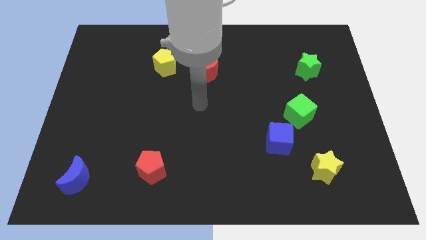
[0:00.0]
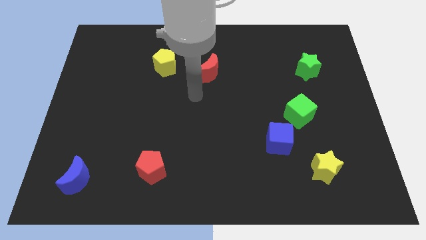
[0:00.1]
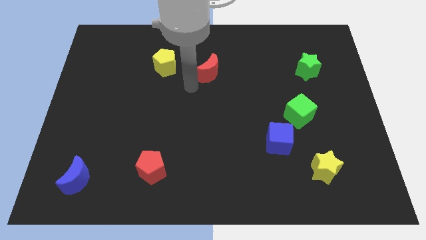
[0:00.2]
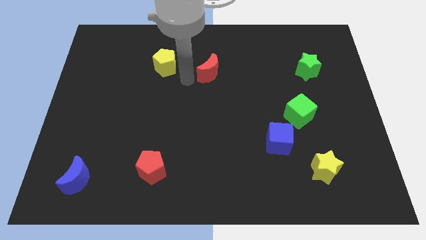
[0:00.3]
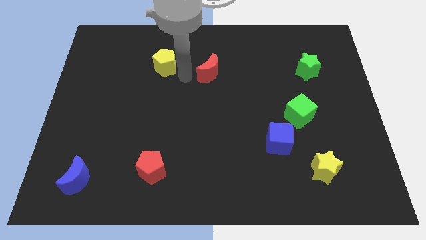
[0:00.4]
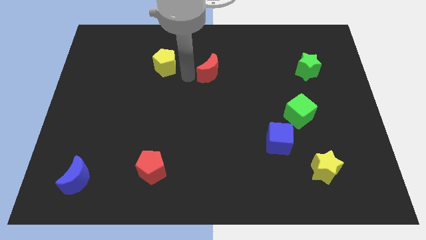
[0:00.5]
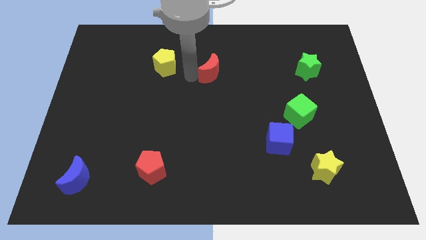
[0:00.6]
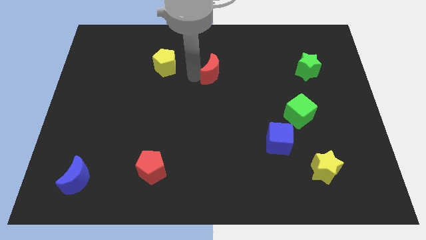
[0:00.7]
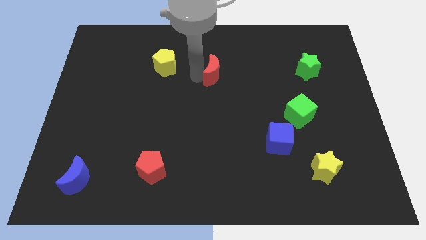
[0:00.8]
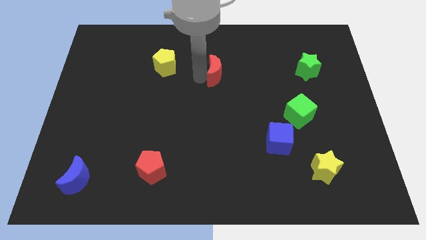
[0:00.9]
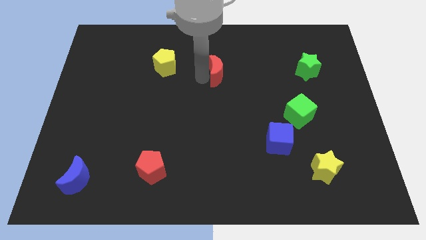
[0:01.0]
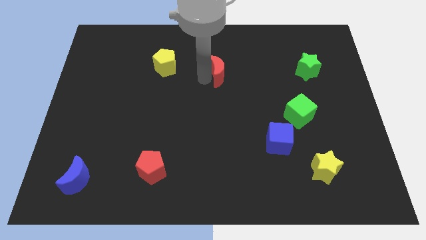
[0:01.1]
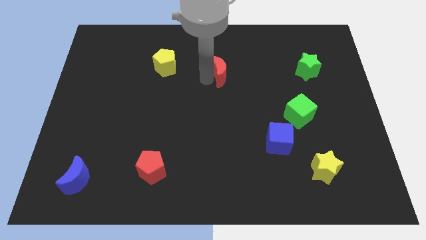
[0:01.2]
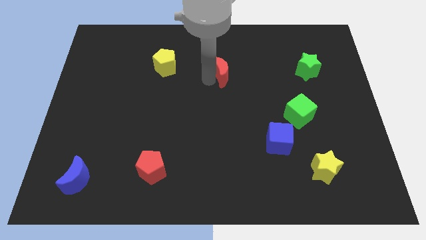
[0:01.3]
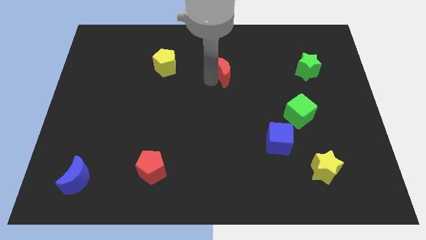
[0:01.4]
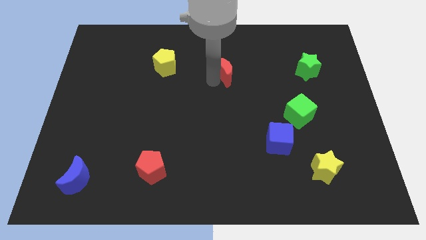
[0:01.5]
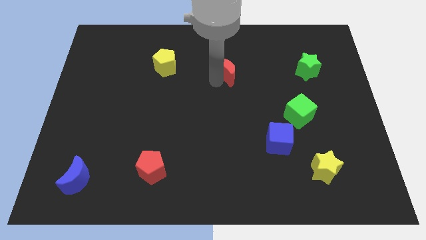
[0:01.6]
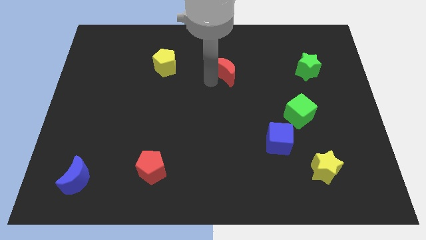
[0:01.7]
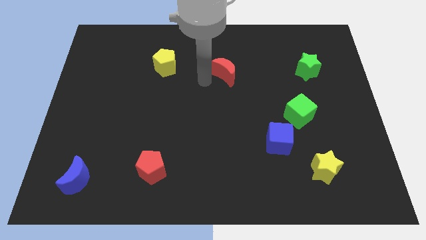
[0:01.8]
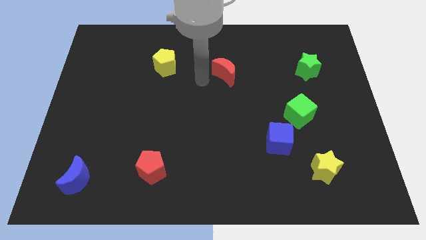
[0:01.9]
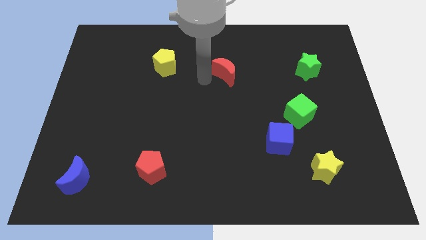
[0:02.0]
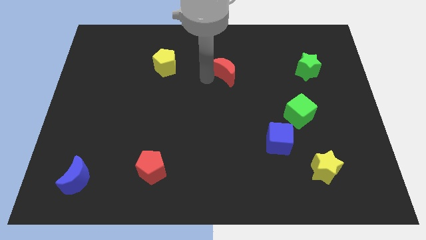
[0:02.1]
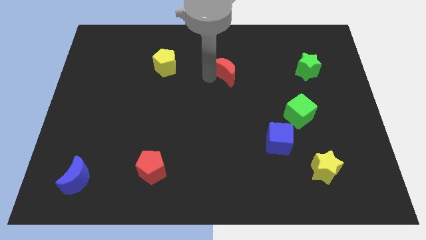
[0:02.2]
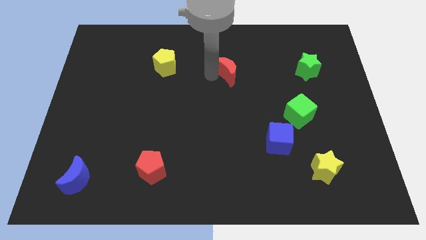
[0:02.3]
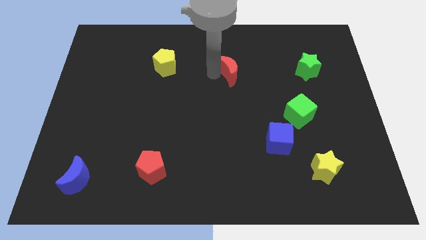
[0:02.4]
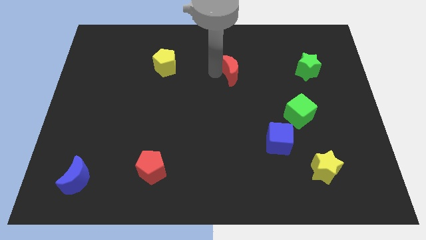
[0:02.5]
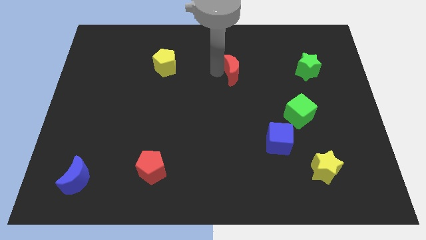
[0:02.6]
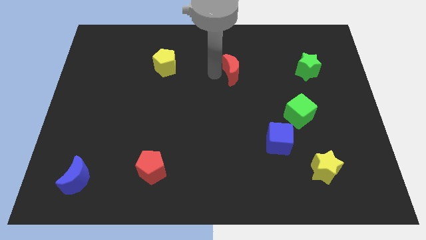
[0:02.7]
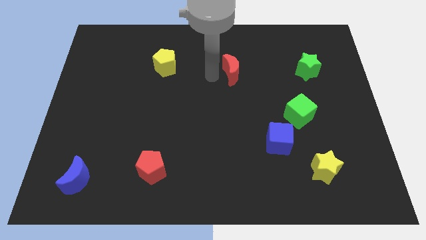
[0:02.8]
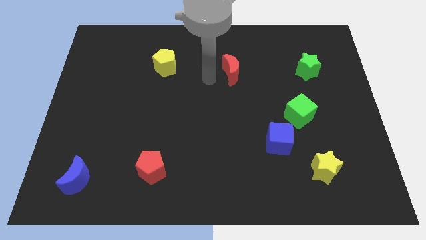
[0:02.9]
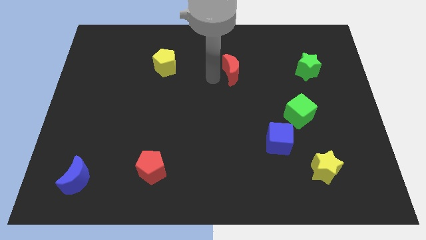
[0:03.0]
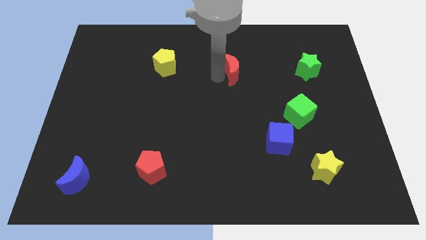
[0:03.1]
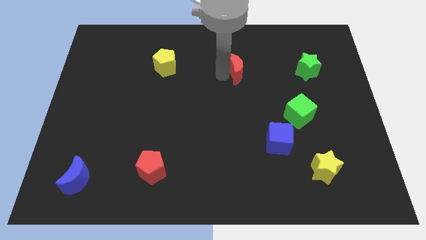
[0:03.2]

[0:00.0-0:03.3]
slightly move the red moon to the right

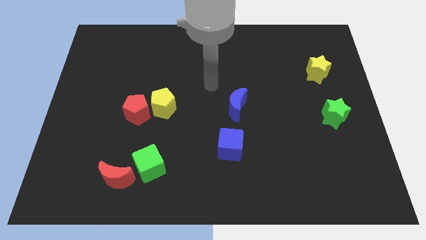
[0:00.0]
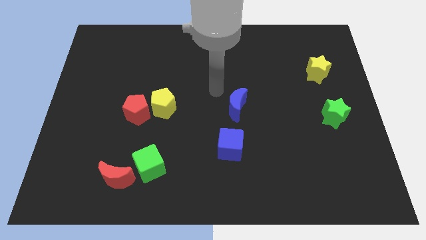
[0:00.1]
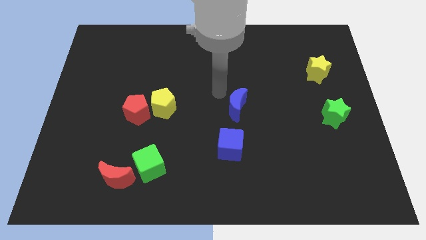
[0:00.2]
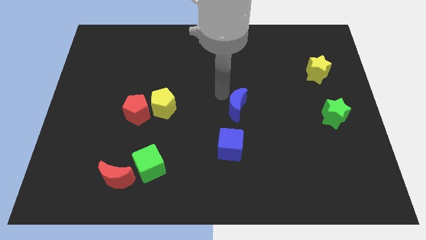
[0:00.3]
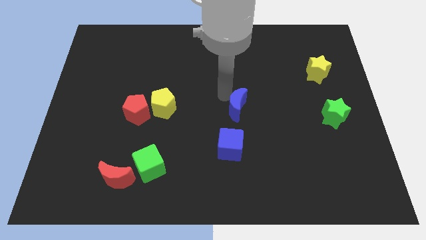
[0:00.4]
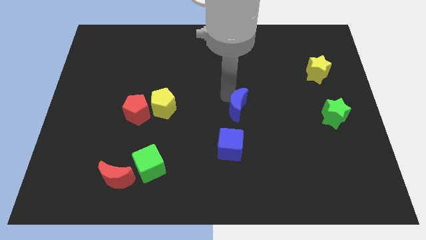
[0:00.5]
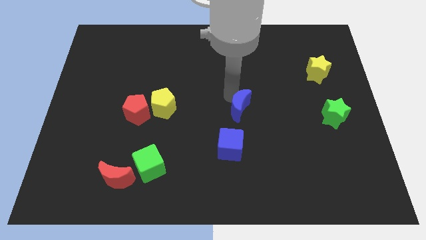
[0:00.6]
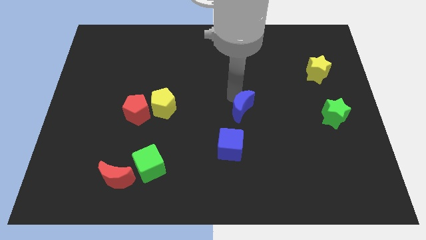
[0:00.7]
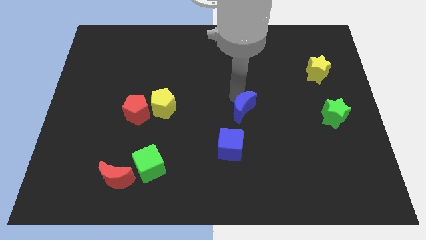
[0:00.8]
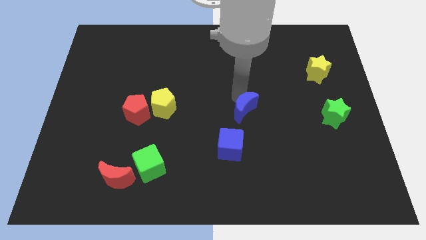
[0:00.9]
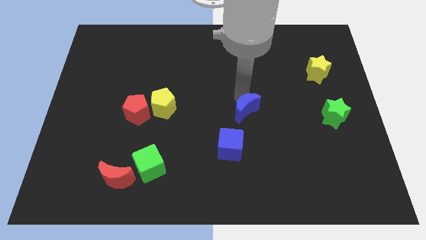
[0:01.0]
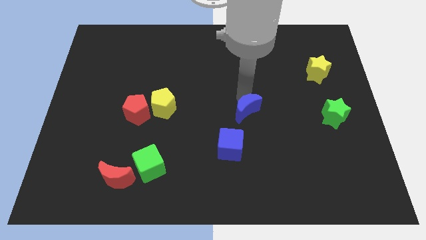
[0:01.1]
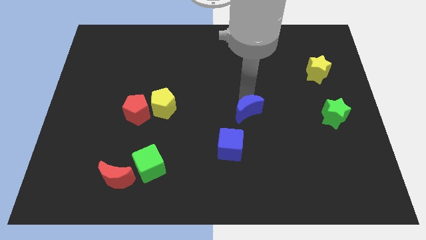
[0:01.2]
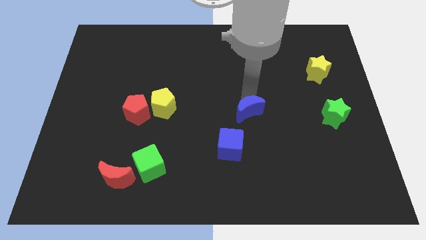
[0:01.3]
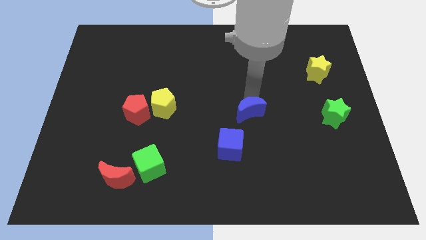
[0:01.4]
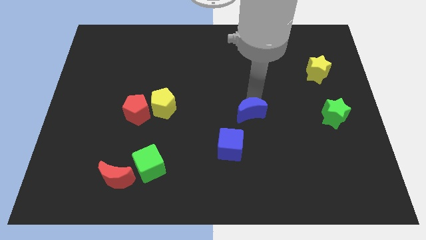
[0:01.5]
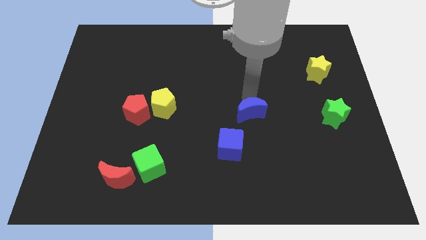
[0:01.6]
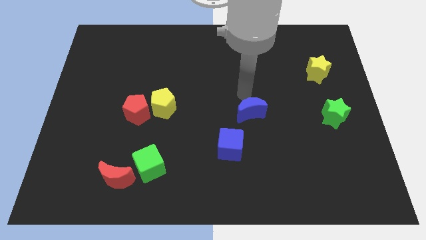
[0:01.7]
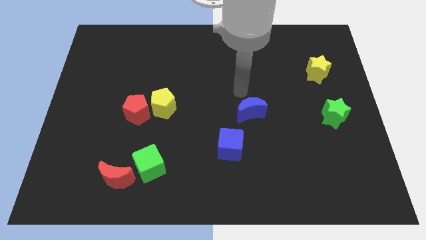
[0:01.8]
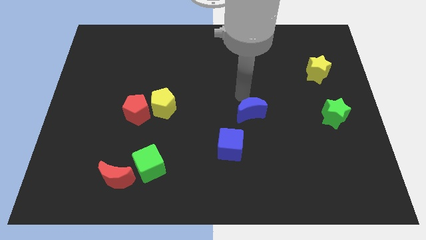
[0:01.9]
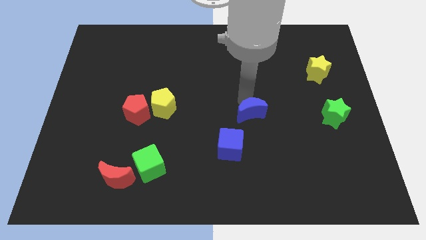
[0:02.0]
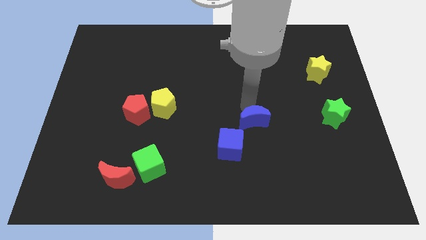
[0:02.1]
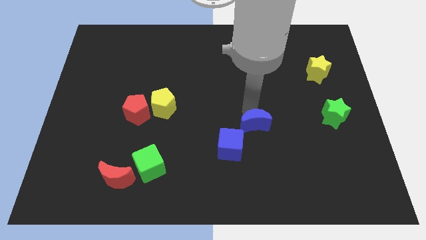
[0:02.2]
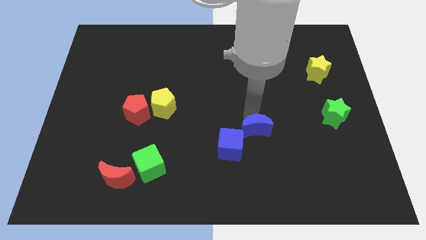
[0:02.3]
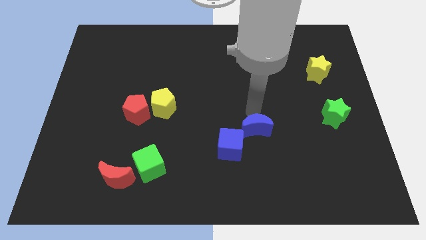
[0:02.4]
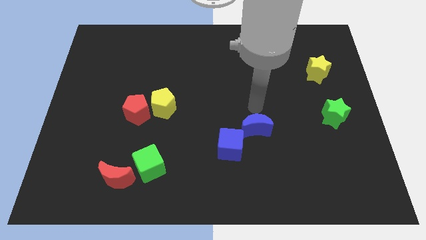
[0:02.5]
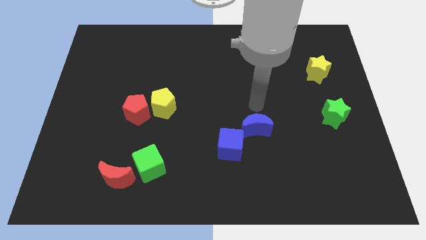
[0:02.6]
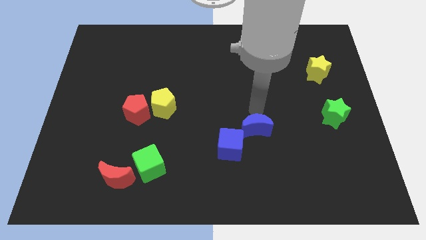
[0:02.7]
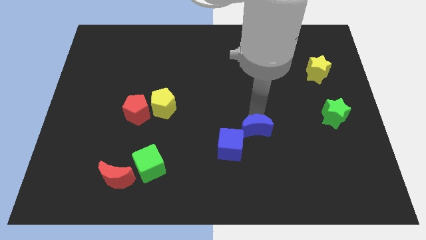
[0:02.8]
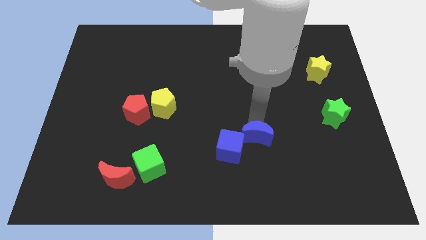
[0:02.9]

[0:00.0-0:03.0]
slightly move the blue moon downwards

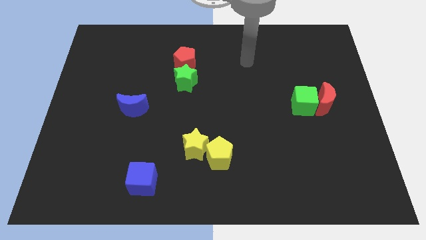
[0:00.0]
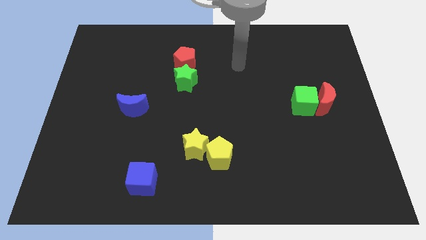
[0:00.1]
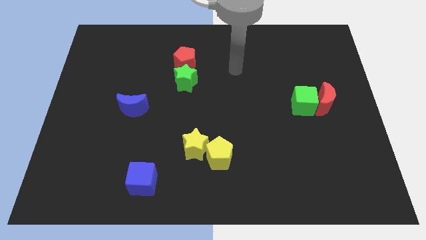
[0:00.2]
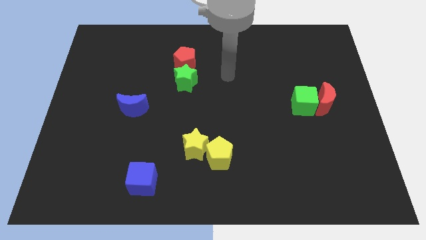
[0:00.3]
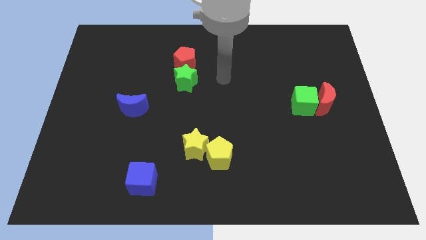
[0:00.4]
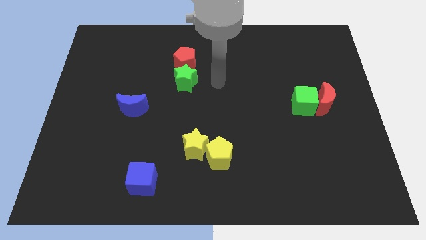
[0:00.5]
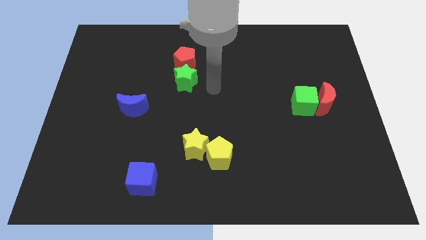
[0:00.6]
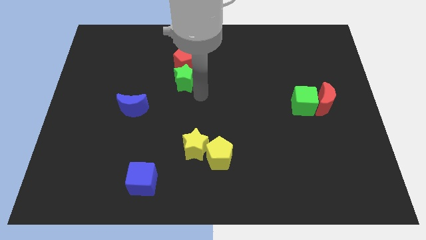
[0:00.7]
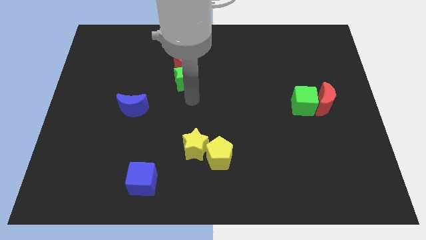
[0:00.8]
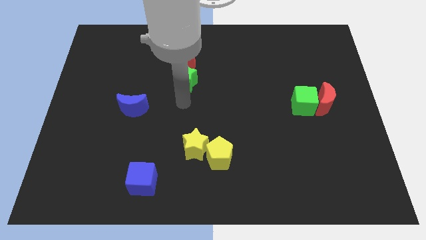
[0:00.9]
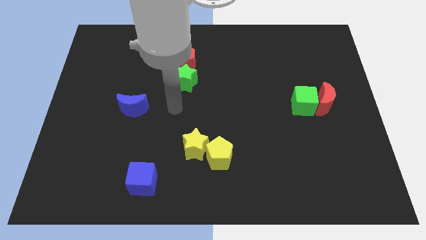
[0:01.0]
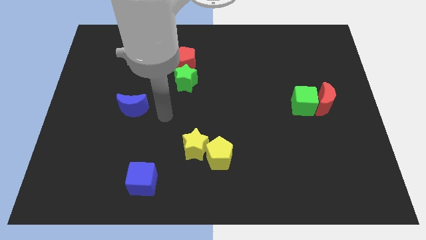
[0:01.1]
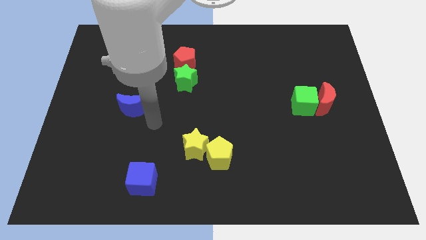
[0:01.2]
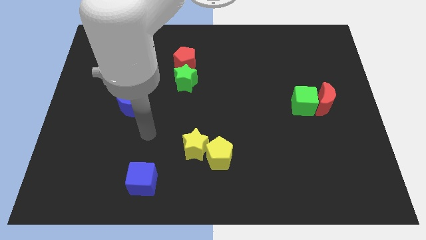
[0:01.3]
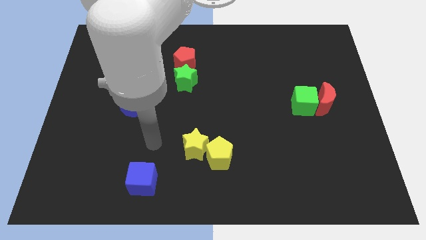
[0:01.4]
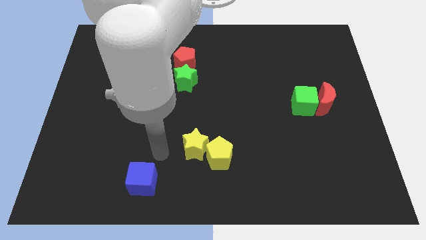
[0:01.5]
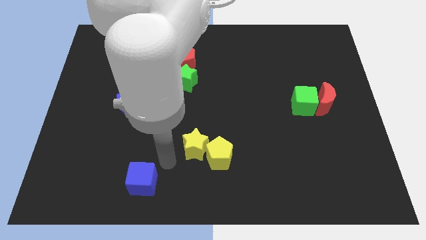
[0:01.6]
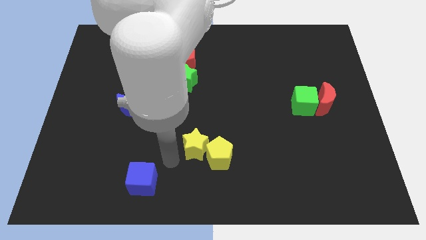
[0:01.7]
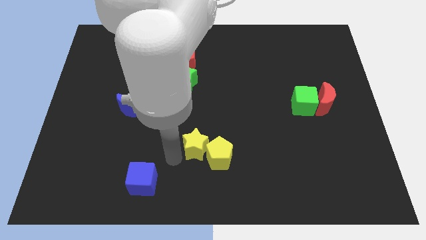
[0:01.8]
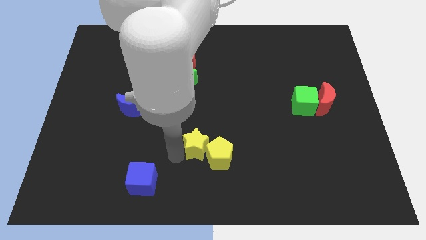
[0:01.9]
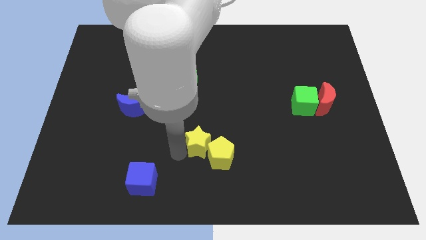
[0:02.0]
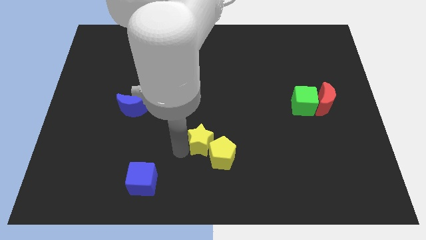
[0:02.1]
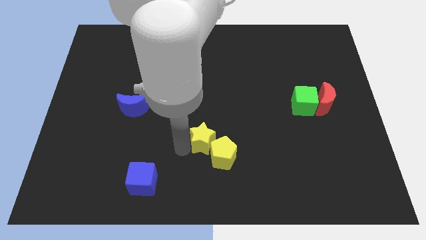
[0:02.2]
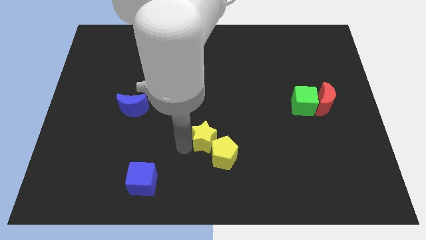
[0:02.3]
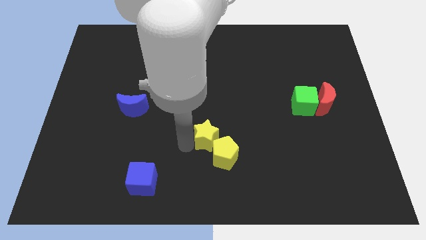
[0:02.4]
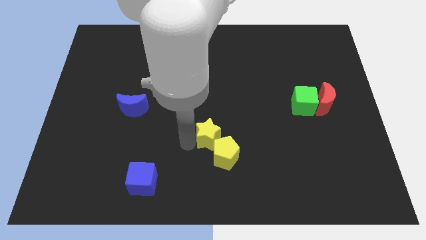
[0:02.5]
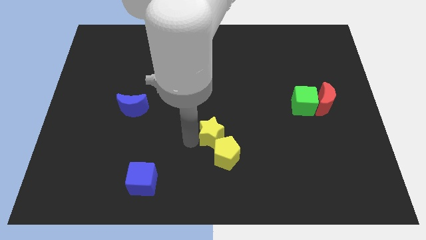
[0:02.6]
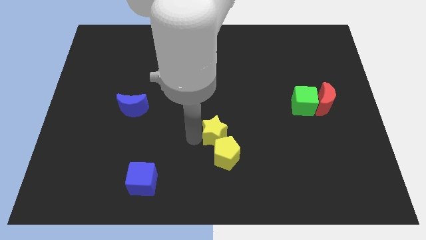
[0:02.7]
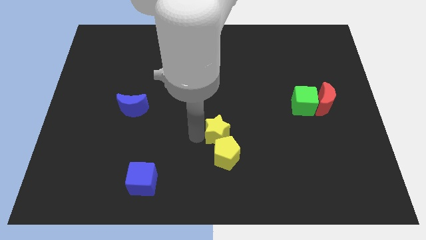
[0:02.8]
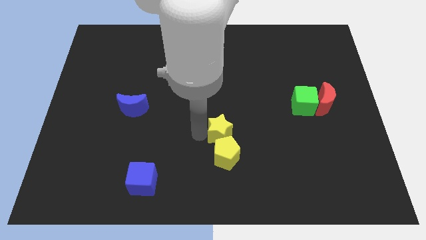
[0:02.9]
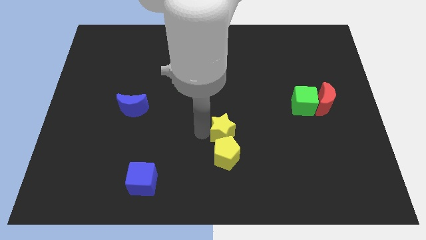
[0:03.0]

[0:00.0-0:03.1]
slightly move the yellow star up and then to the right
